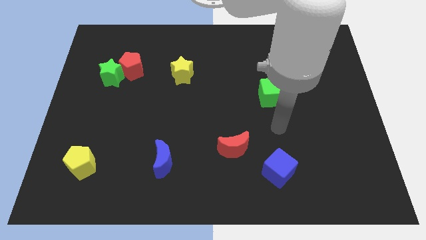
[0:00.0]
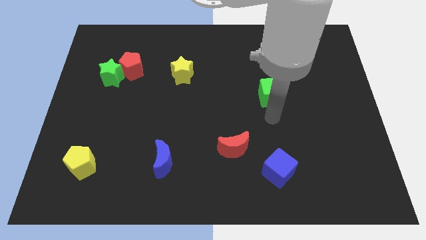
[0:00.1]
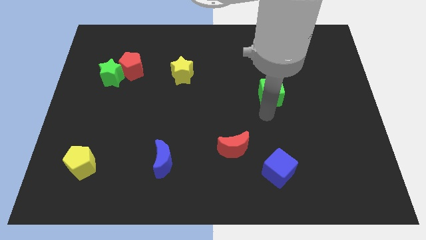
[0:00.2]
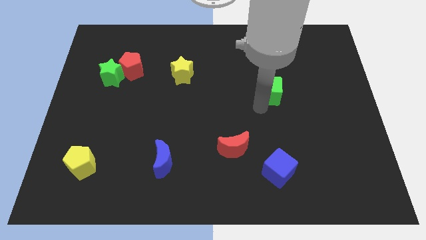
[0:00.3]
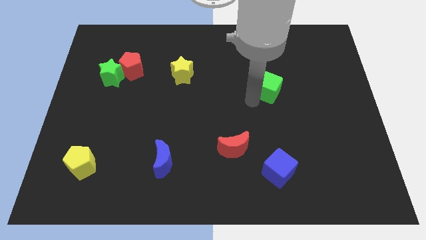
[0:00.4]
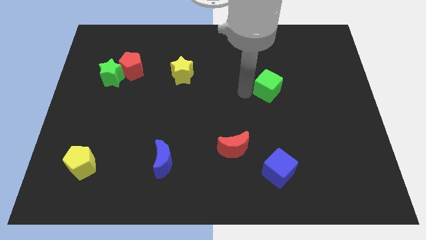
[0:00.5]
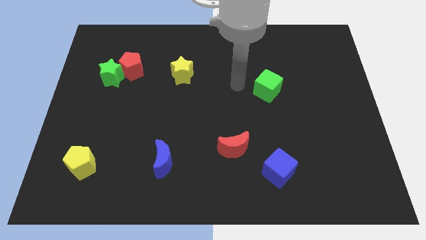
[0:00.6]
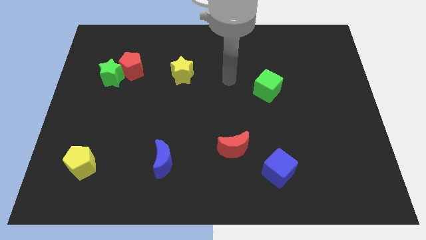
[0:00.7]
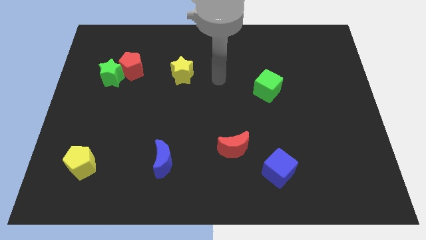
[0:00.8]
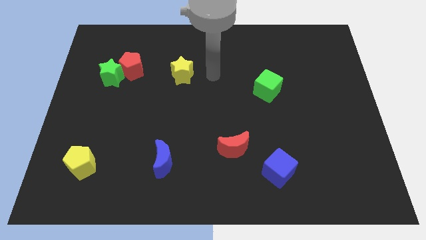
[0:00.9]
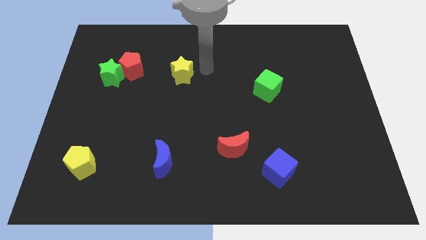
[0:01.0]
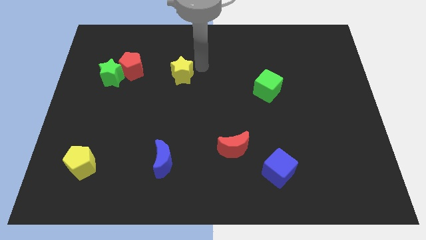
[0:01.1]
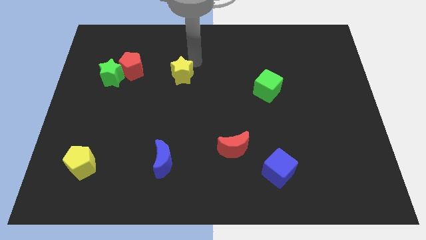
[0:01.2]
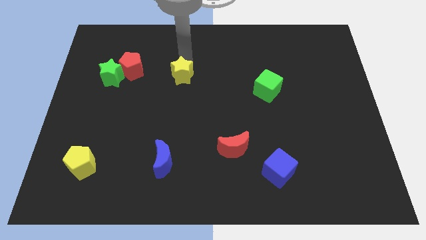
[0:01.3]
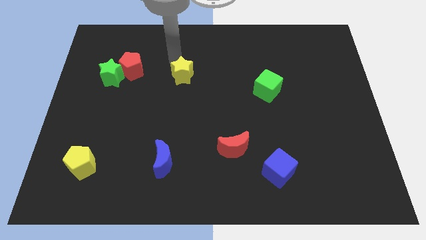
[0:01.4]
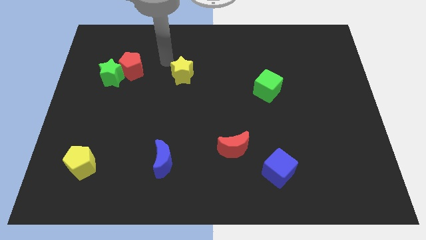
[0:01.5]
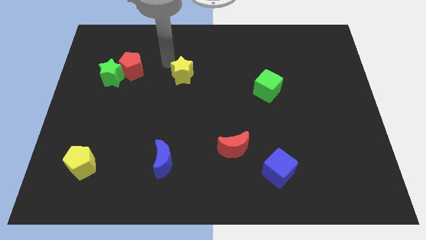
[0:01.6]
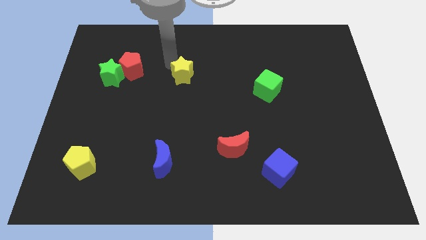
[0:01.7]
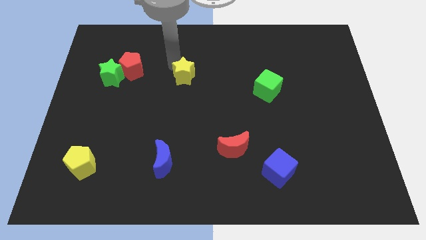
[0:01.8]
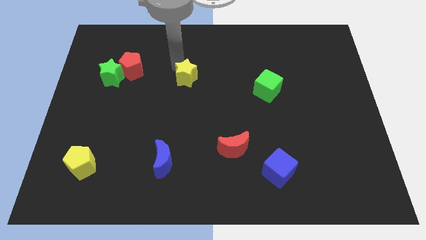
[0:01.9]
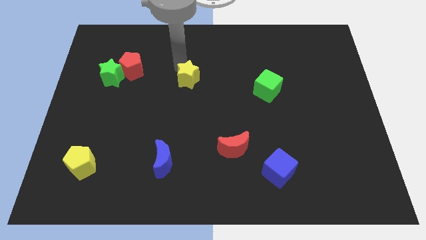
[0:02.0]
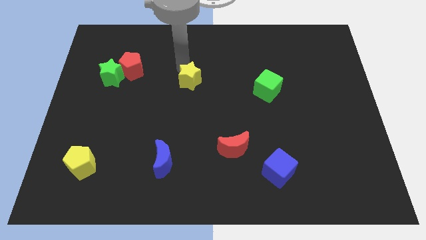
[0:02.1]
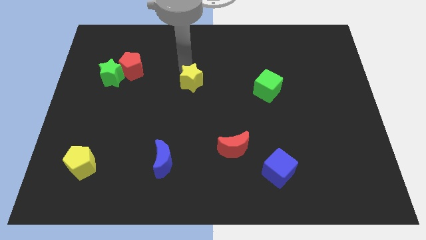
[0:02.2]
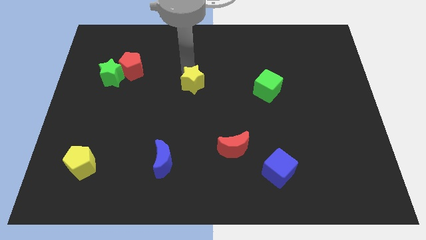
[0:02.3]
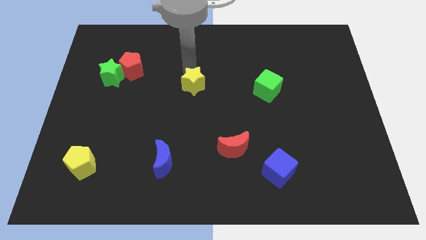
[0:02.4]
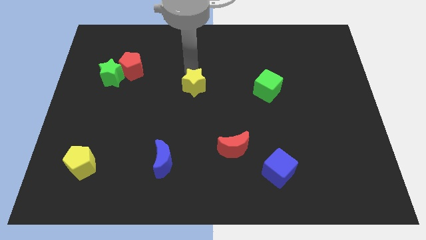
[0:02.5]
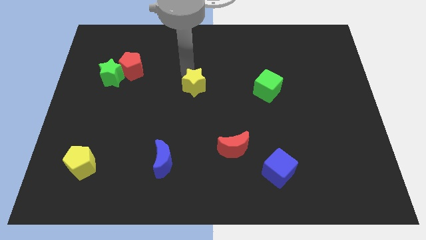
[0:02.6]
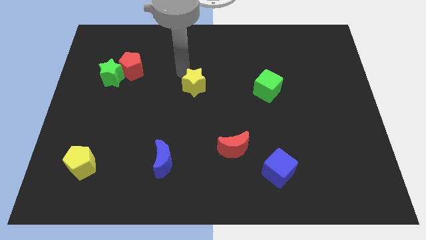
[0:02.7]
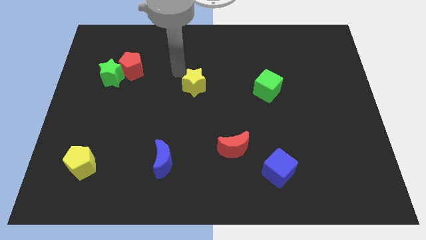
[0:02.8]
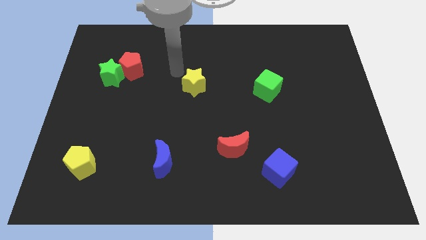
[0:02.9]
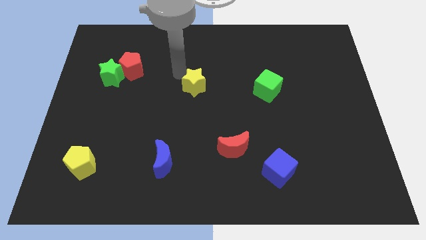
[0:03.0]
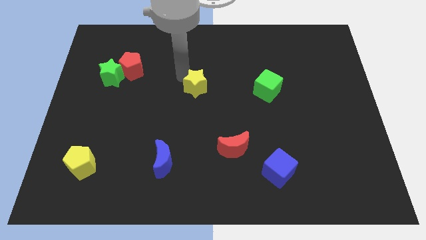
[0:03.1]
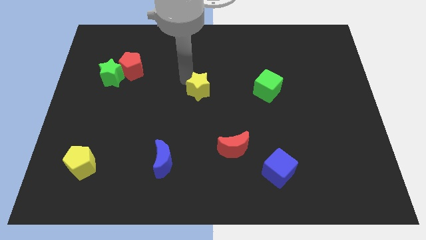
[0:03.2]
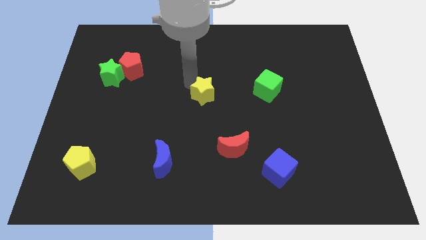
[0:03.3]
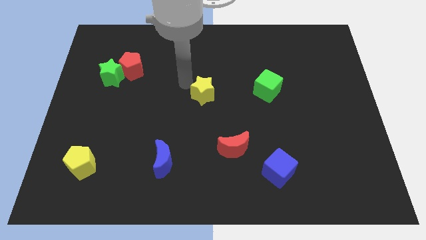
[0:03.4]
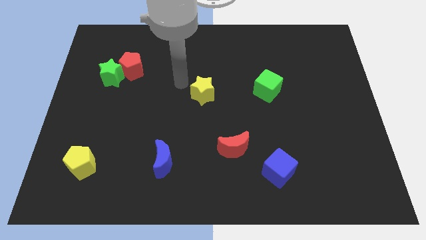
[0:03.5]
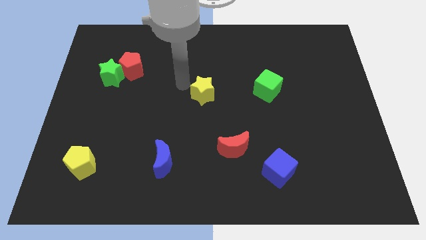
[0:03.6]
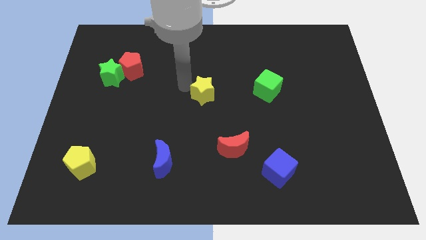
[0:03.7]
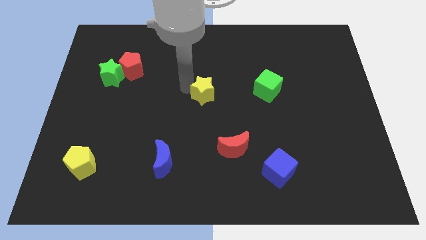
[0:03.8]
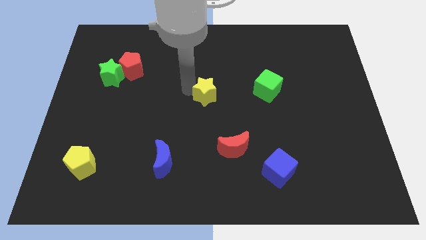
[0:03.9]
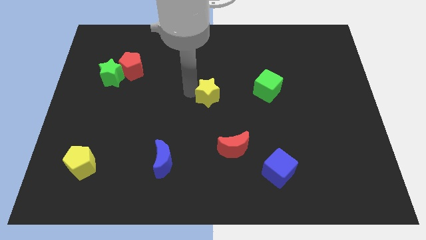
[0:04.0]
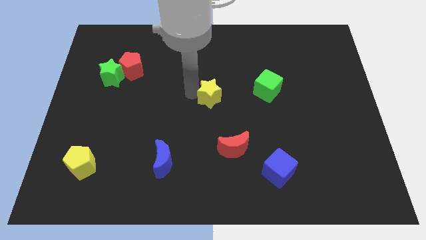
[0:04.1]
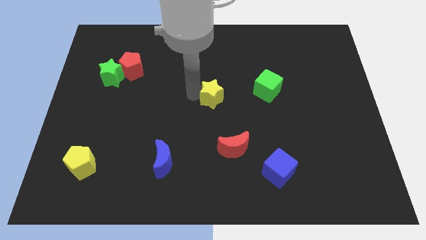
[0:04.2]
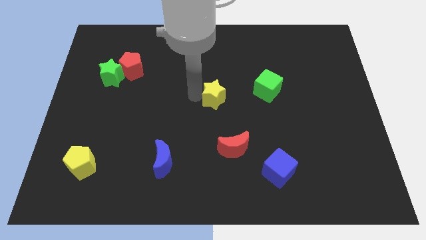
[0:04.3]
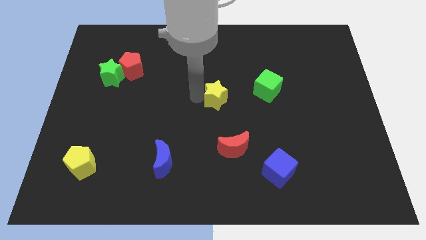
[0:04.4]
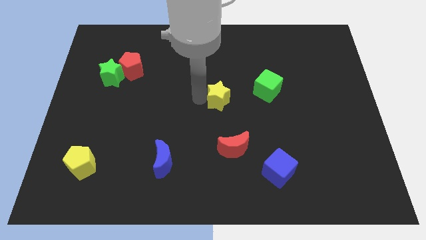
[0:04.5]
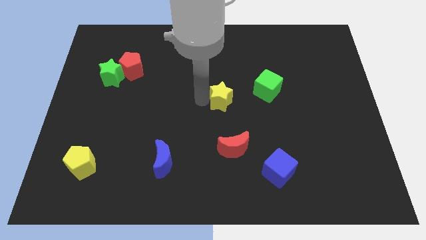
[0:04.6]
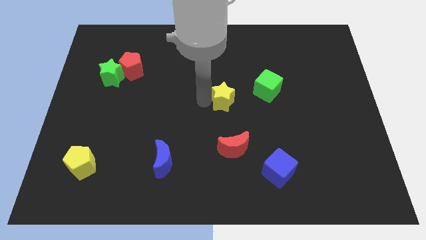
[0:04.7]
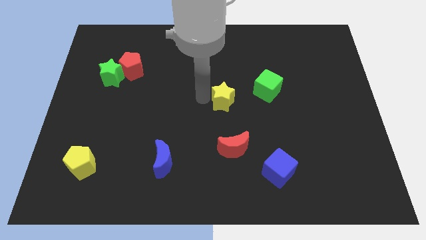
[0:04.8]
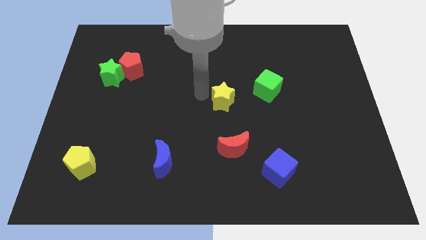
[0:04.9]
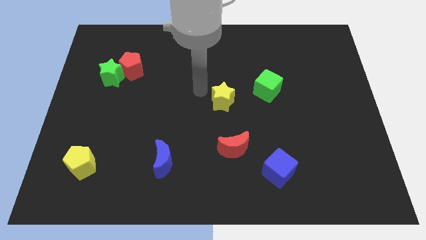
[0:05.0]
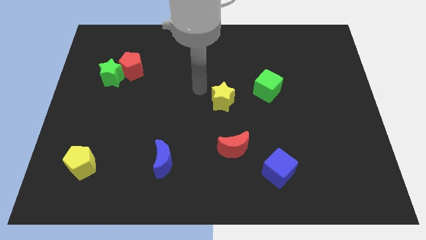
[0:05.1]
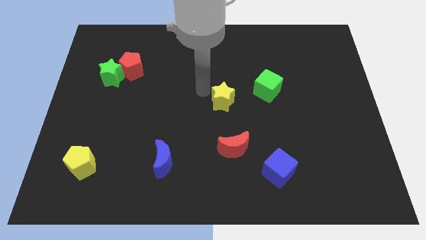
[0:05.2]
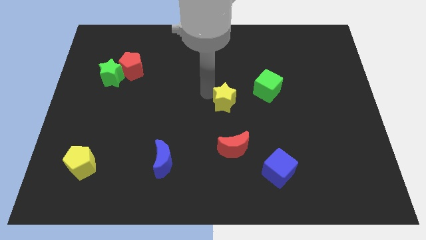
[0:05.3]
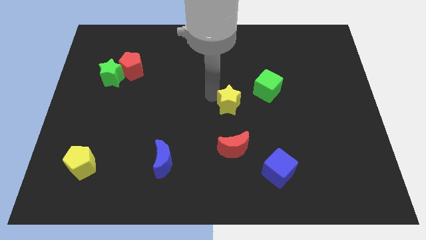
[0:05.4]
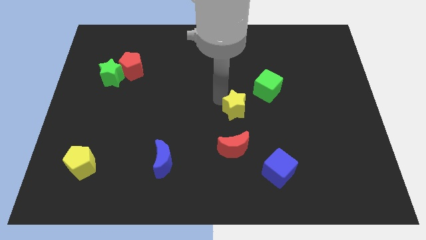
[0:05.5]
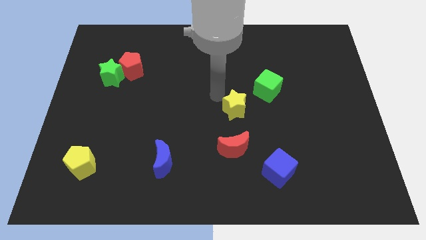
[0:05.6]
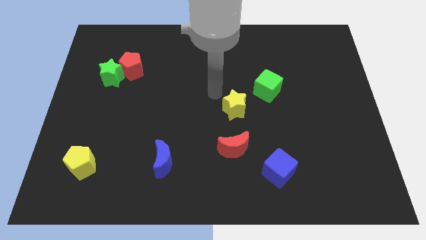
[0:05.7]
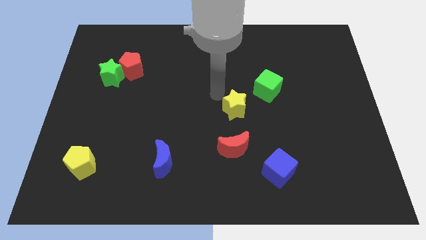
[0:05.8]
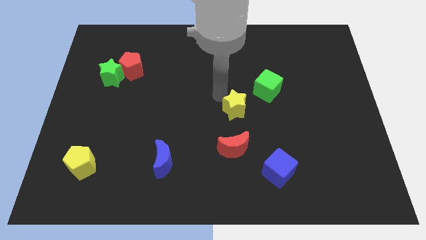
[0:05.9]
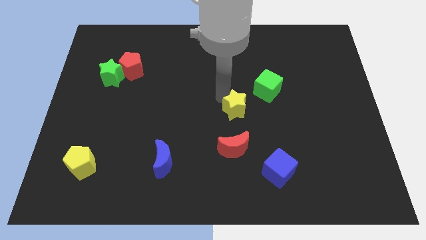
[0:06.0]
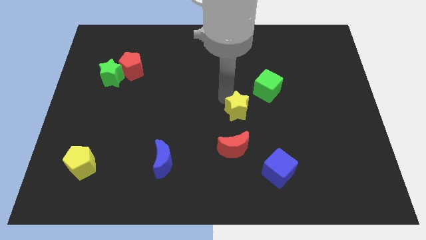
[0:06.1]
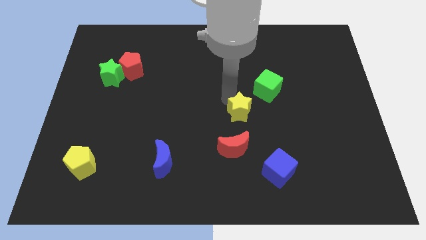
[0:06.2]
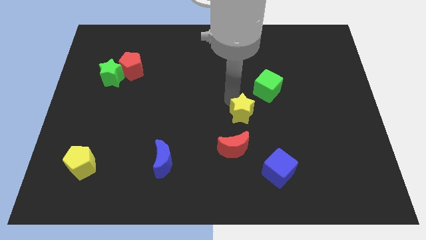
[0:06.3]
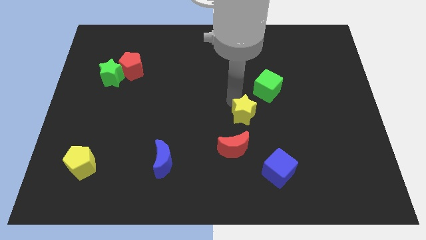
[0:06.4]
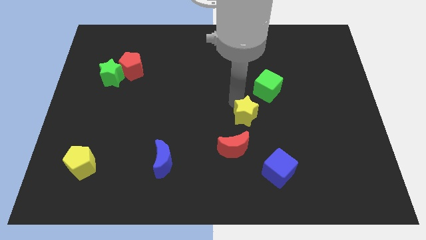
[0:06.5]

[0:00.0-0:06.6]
slide the yellow star downwards and then to the right

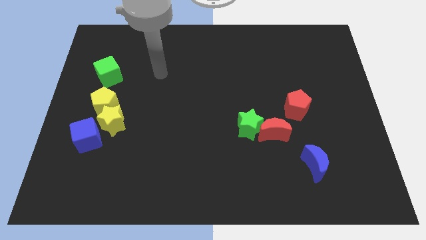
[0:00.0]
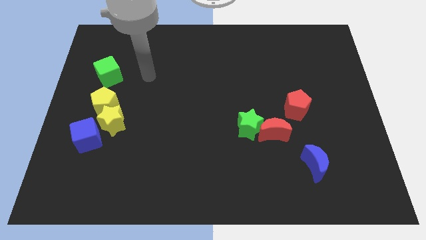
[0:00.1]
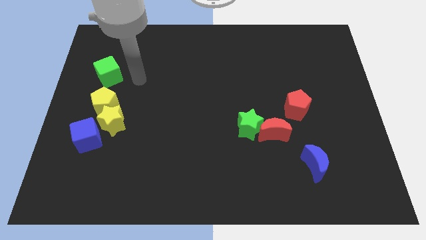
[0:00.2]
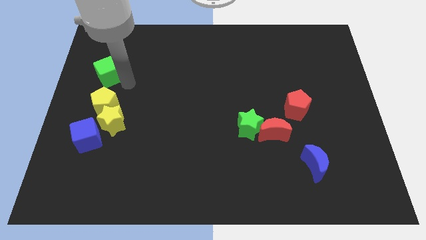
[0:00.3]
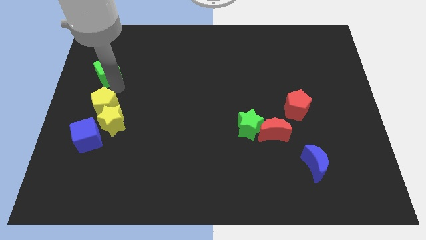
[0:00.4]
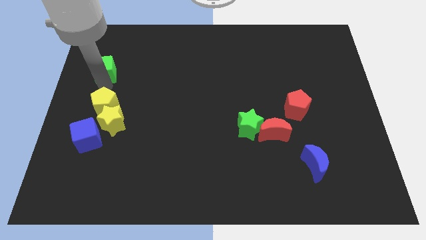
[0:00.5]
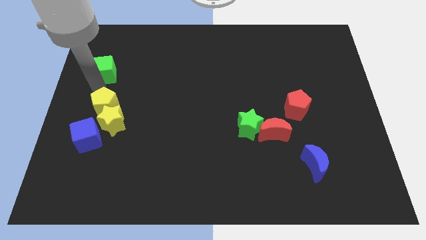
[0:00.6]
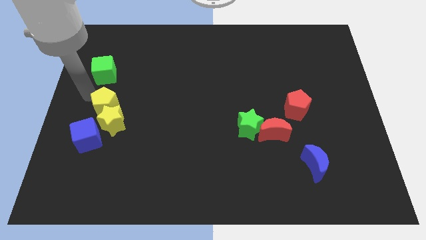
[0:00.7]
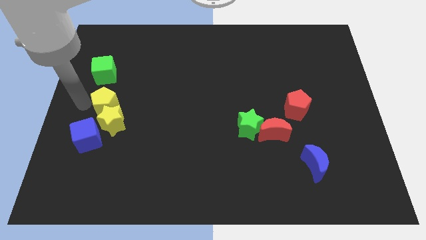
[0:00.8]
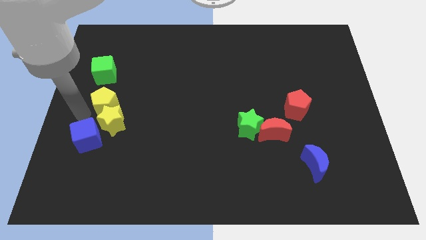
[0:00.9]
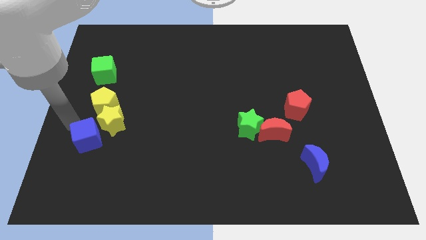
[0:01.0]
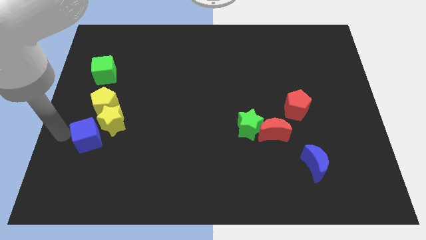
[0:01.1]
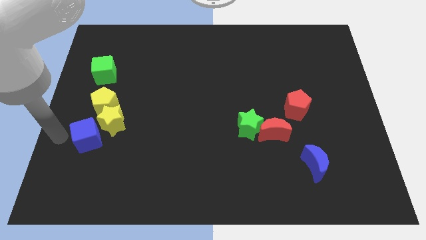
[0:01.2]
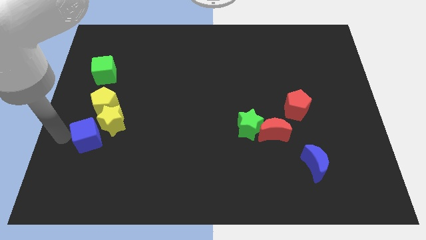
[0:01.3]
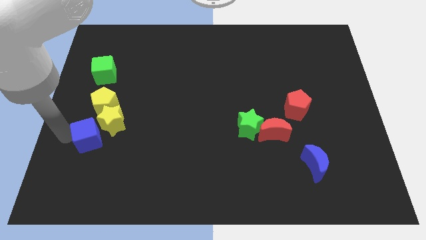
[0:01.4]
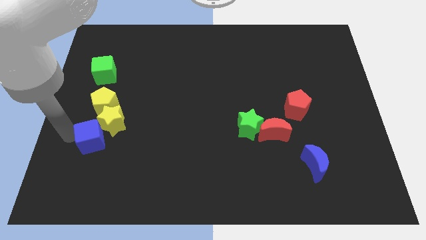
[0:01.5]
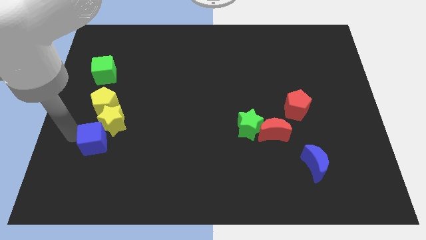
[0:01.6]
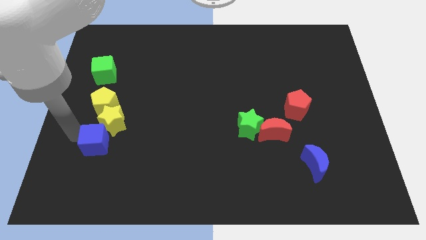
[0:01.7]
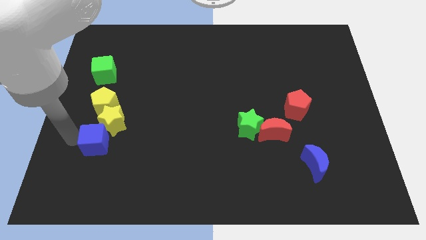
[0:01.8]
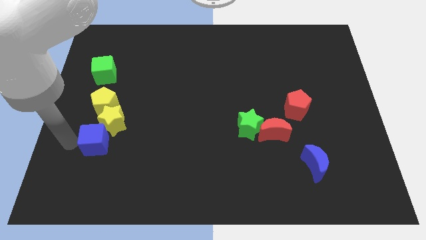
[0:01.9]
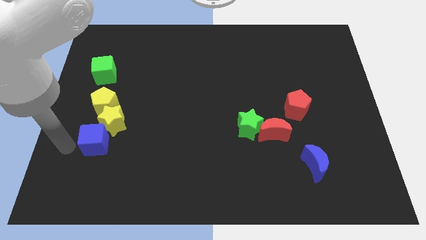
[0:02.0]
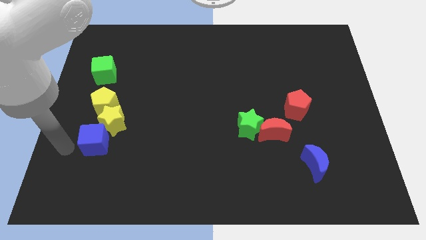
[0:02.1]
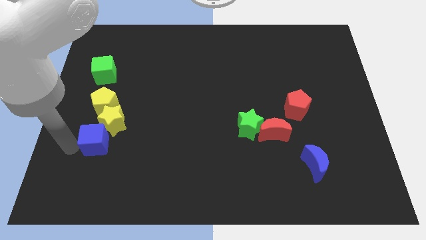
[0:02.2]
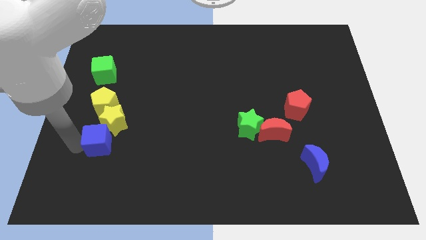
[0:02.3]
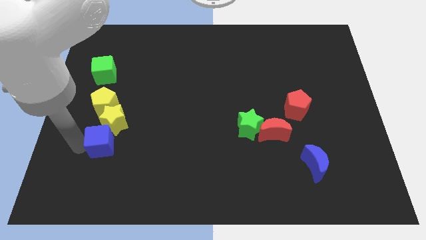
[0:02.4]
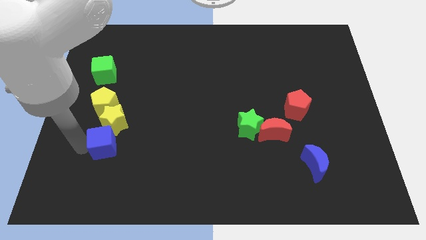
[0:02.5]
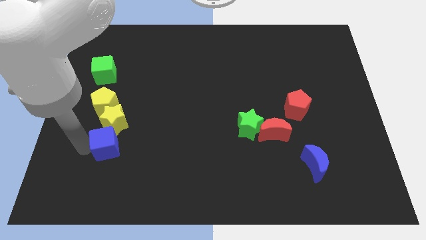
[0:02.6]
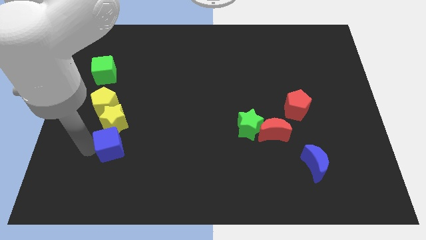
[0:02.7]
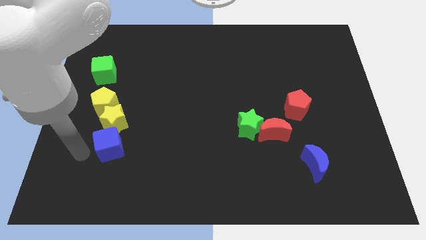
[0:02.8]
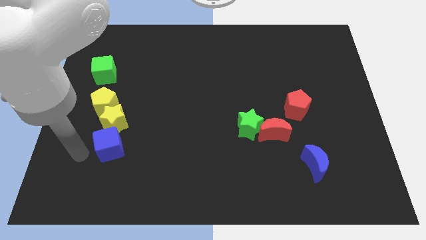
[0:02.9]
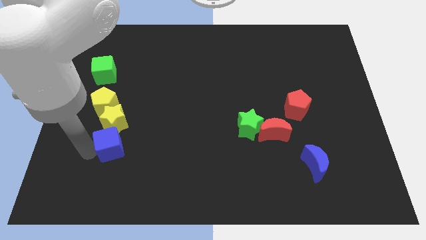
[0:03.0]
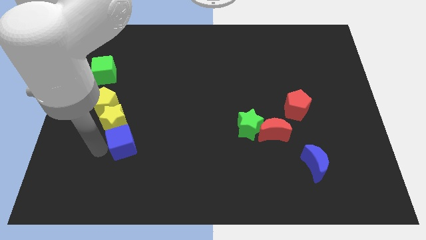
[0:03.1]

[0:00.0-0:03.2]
slightly move the blue cube right
